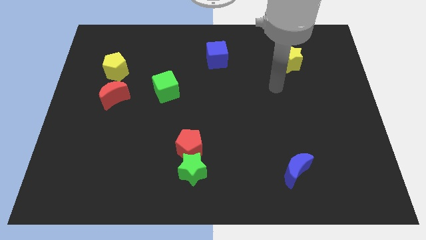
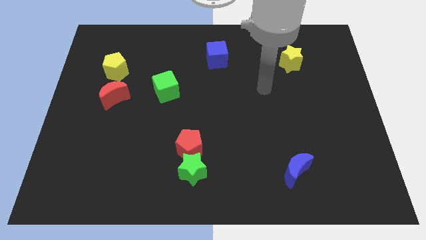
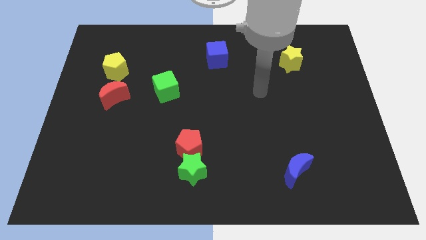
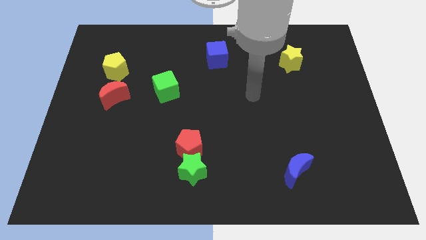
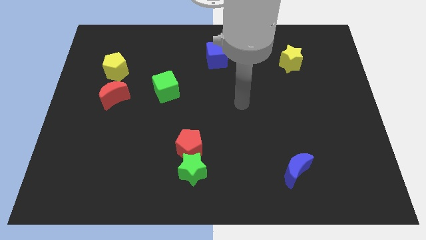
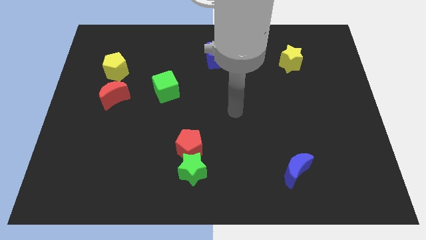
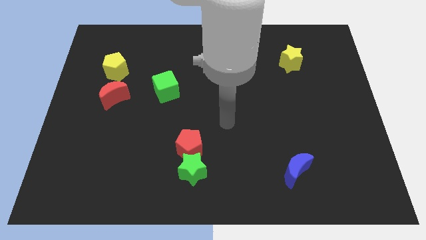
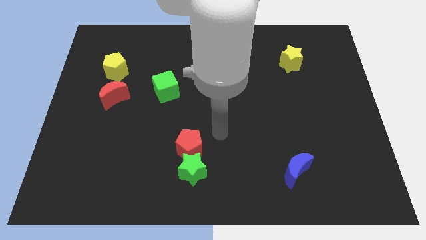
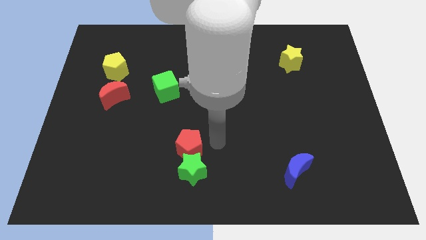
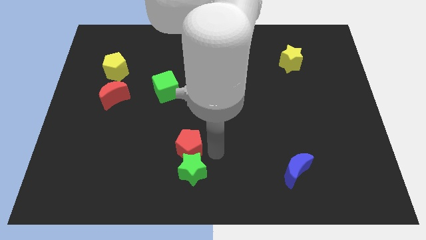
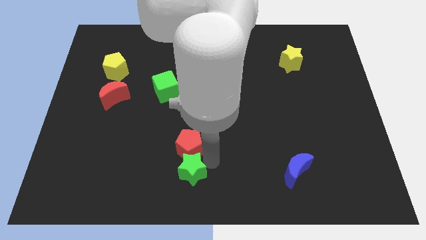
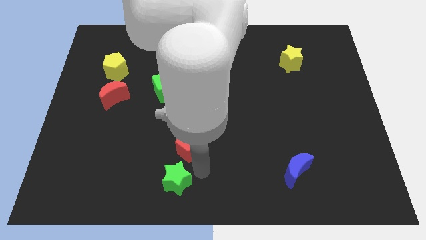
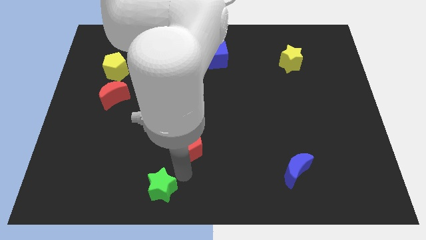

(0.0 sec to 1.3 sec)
separate the red pentagon from the green star

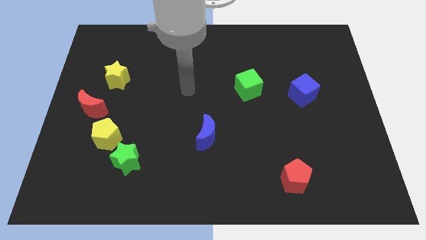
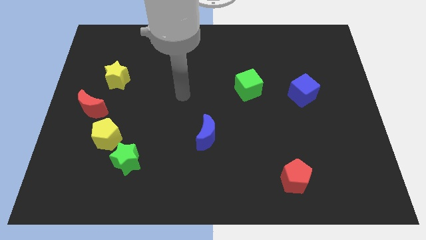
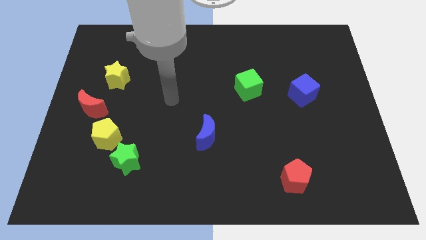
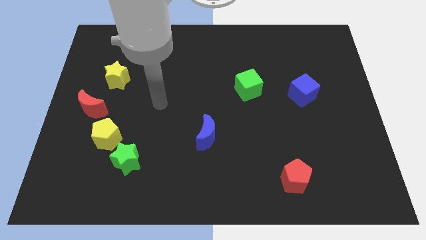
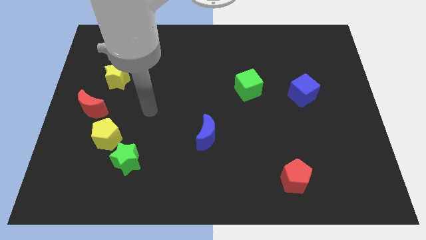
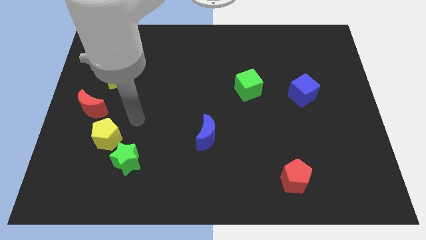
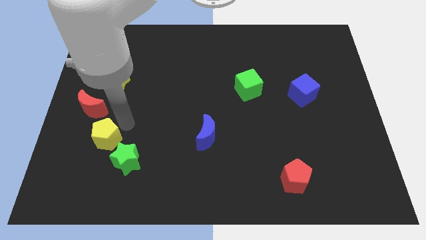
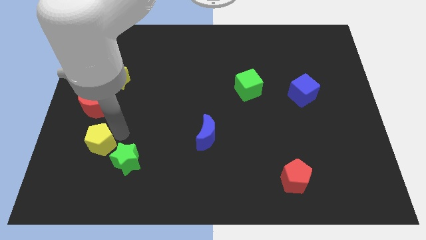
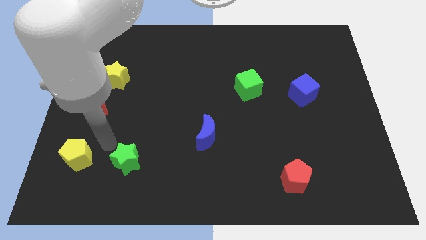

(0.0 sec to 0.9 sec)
move the green star away from the yellow pentagon

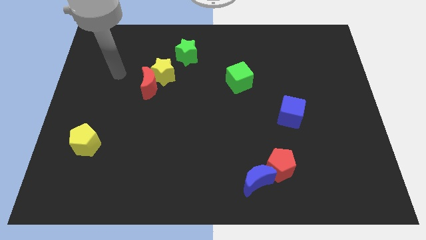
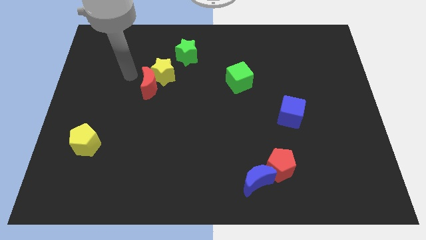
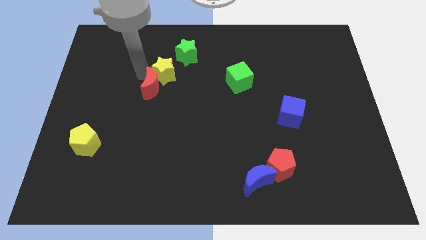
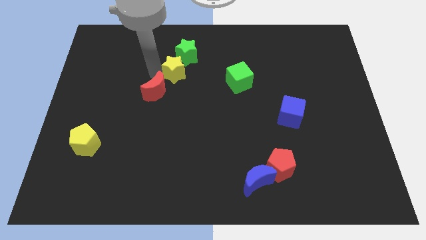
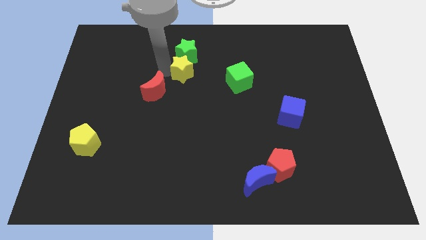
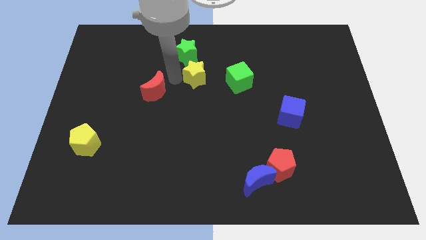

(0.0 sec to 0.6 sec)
move the red moon away from the yellow star

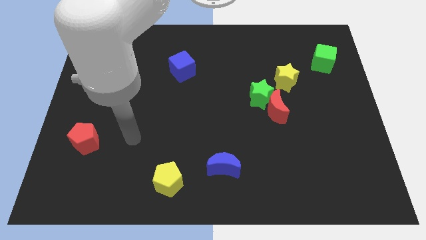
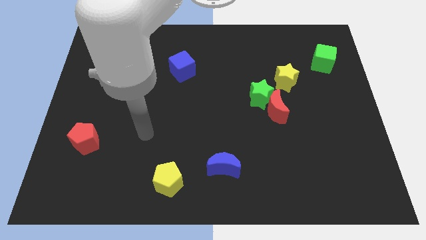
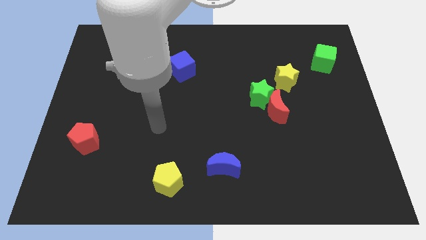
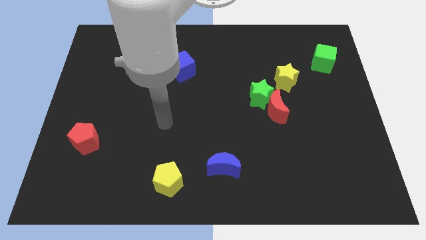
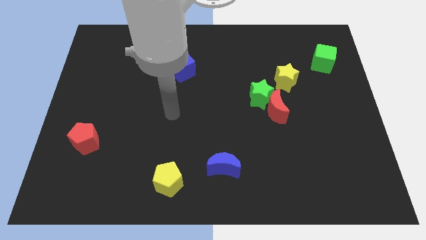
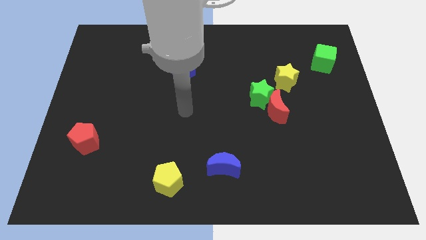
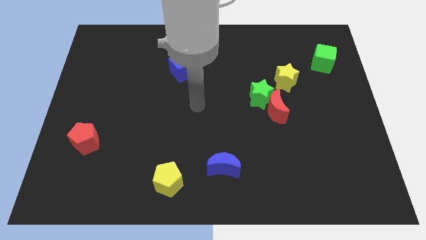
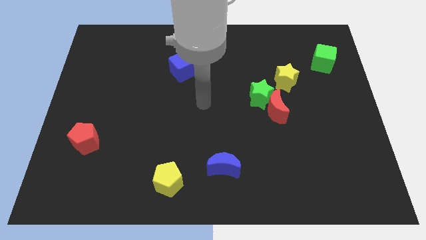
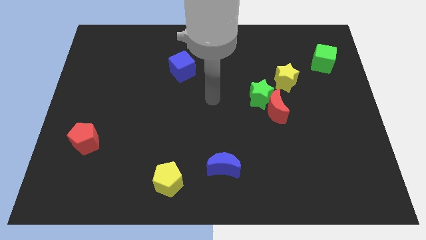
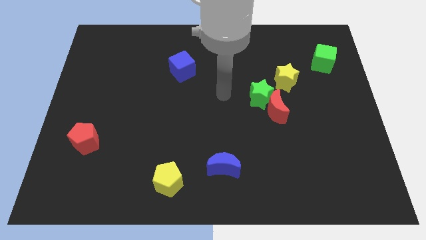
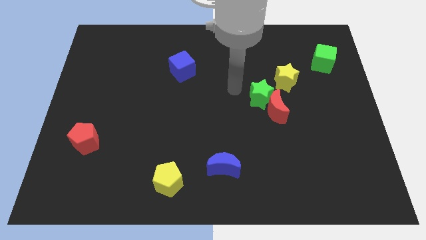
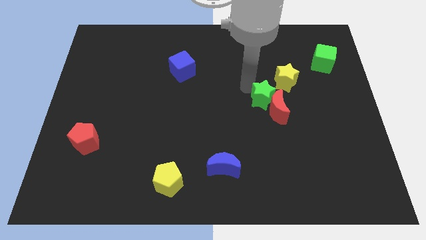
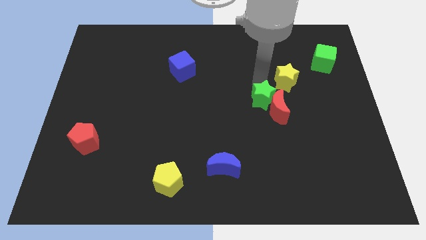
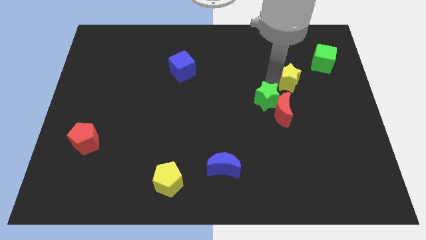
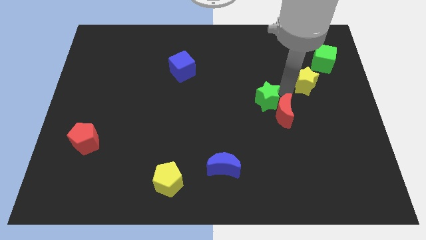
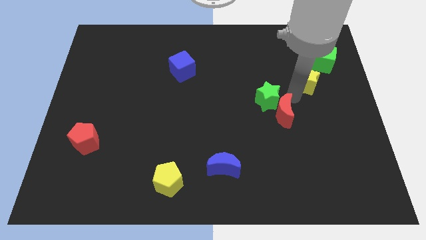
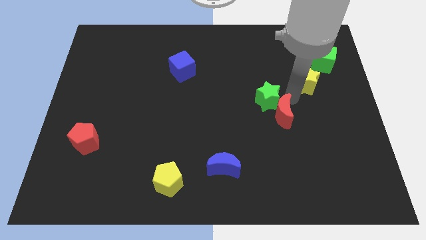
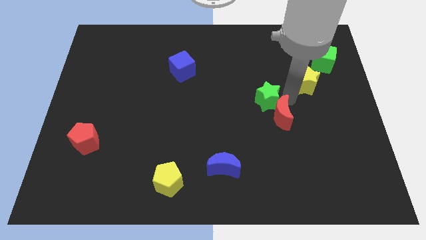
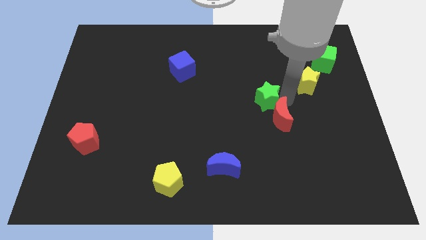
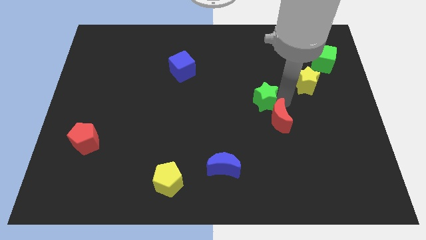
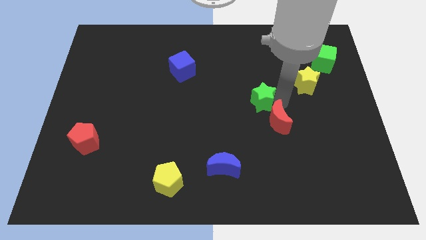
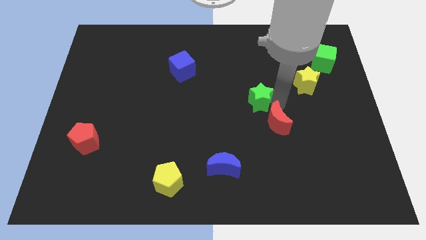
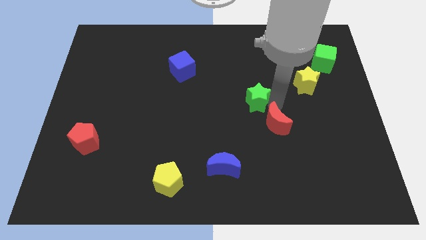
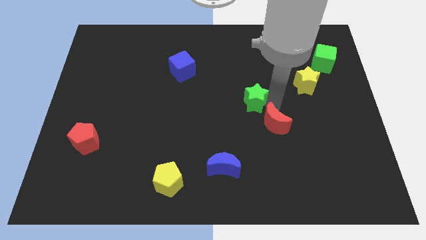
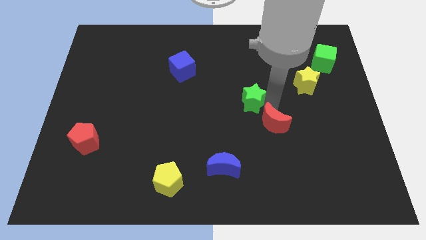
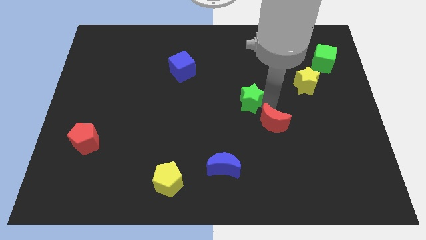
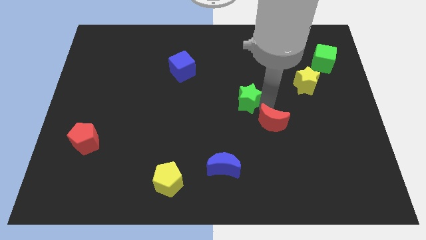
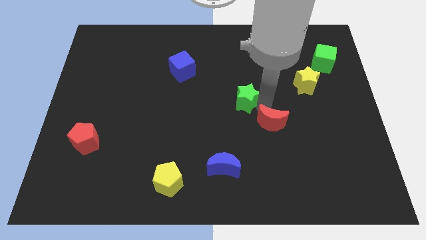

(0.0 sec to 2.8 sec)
move the green star away from the red moon and yellow star

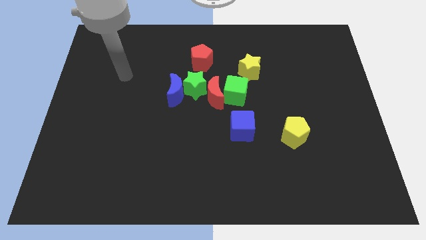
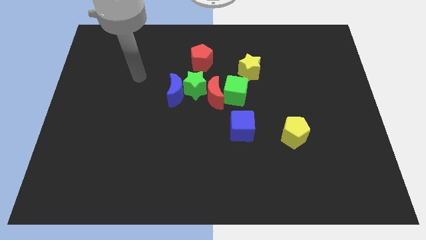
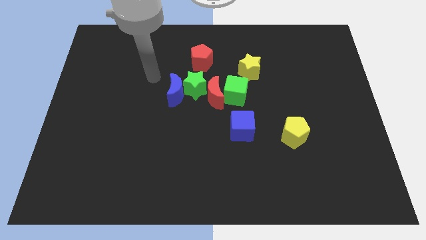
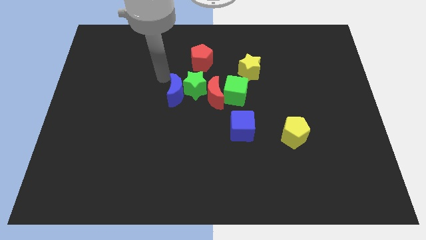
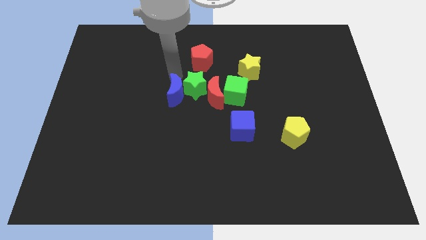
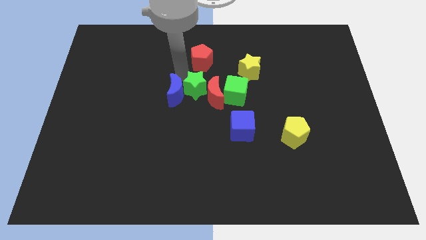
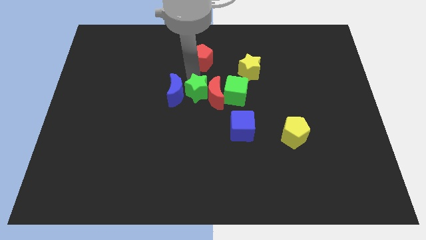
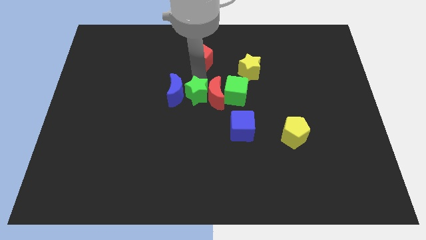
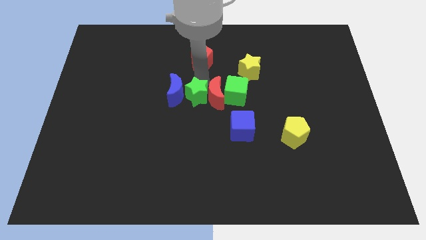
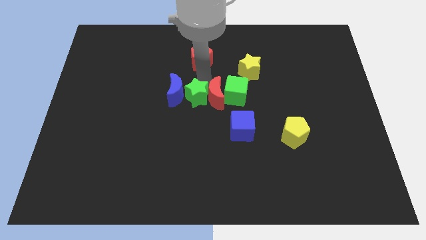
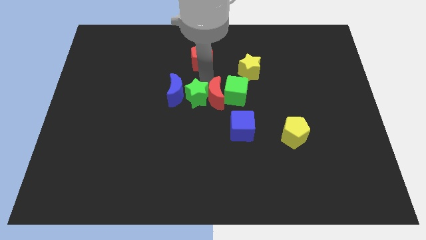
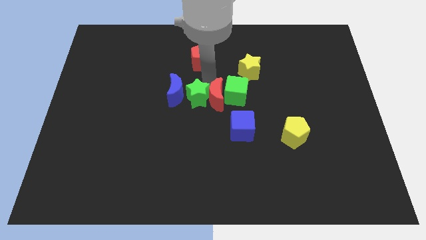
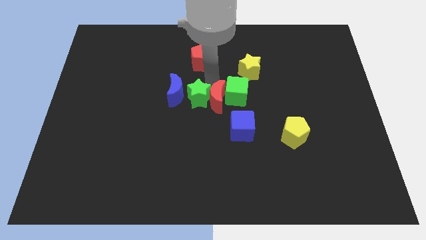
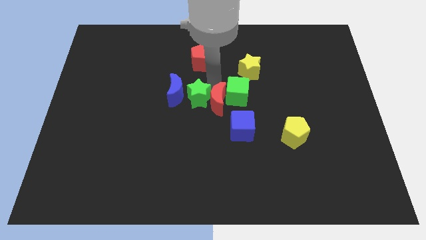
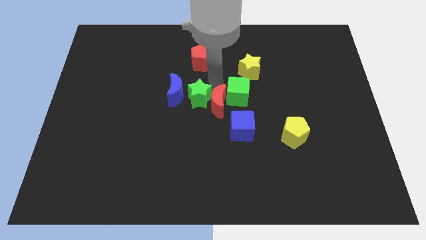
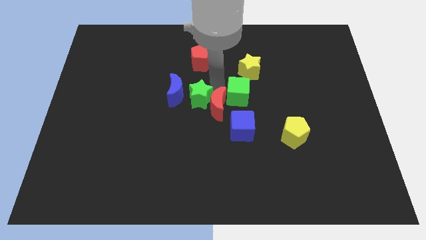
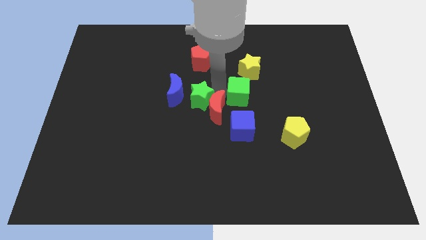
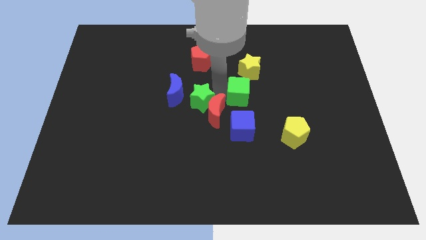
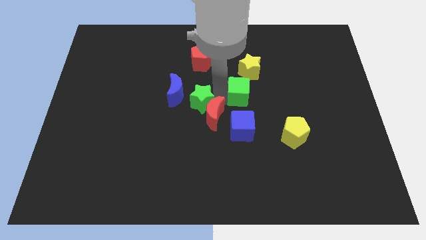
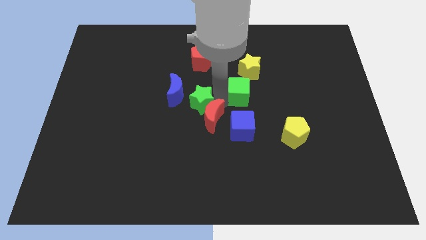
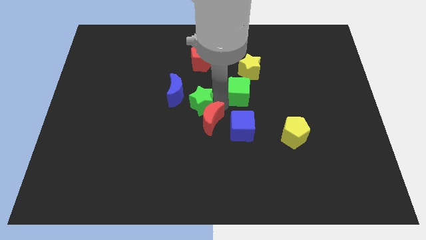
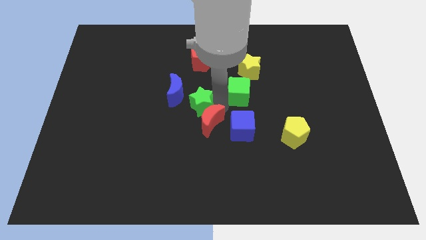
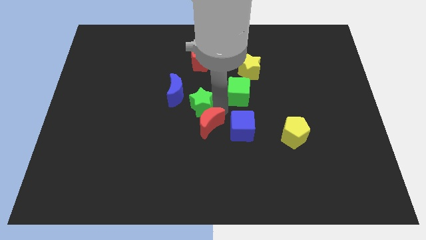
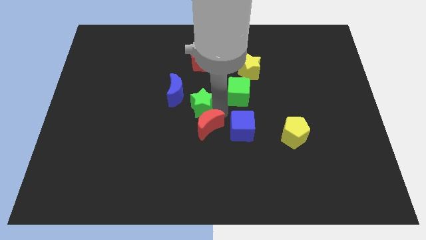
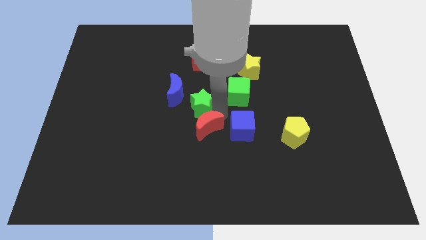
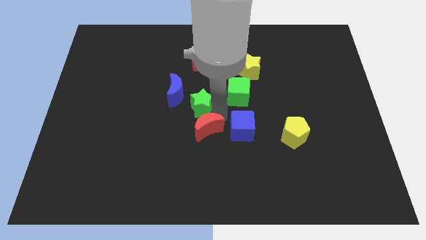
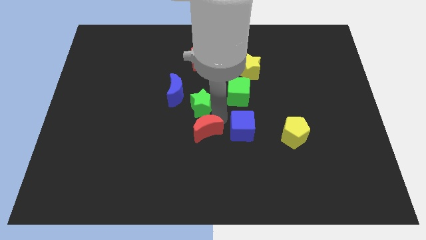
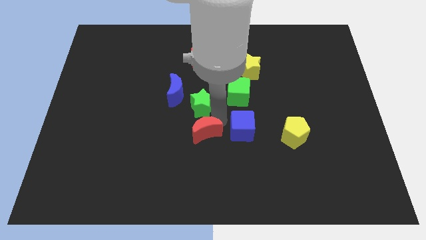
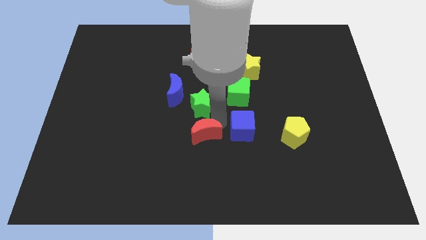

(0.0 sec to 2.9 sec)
pull the red moon apart from the green star, green cube, and blue moon

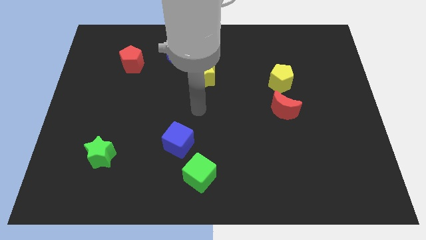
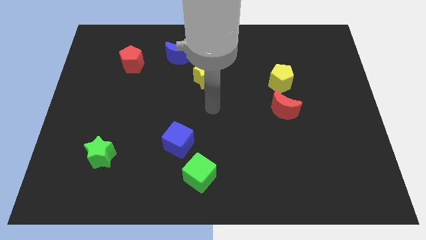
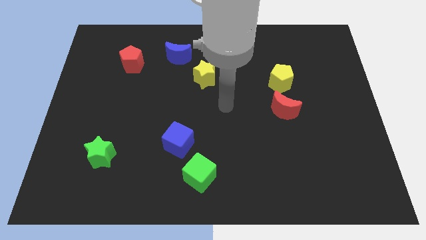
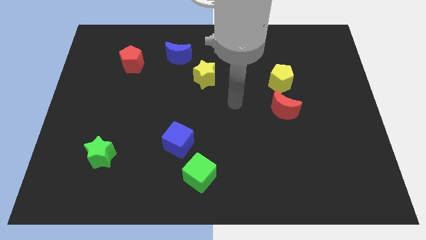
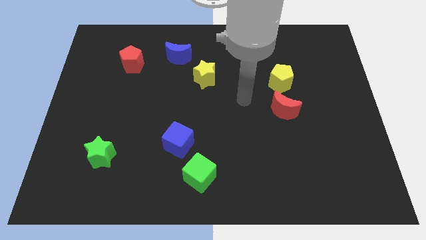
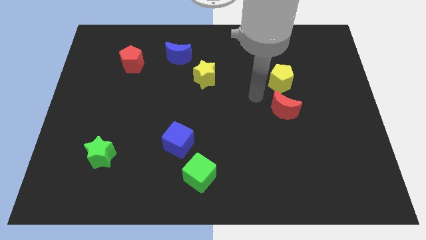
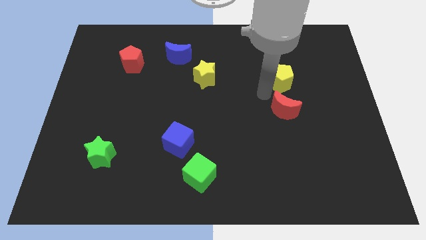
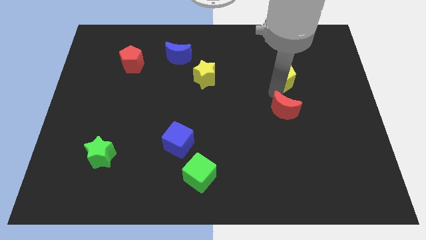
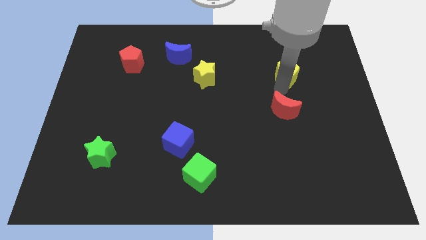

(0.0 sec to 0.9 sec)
move the red moon away from the yellow pentagon
